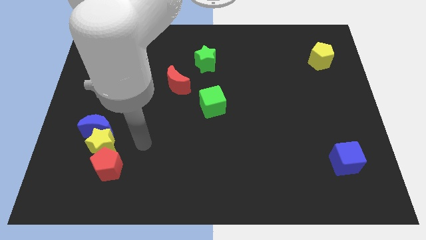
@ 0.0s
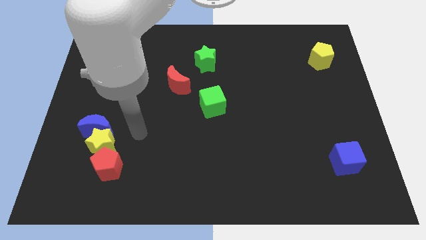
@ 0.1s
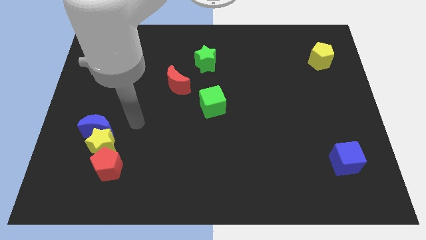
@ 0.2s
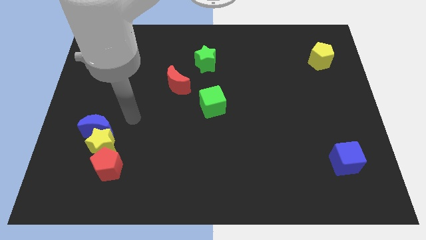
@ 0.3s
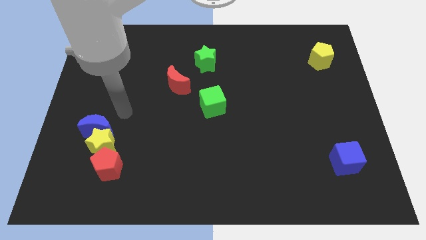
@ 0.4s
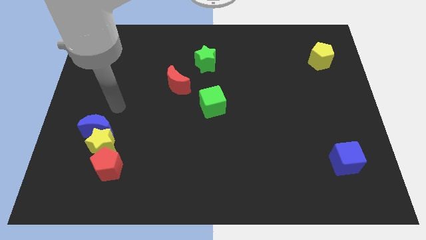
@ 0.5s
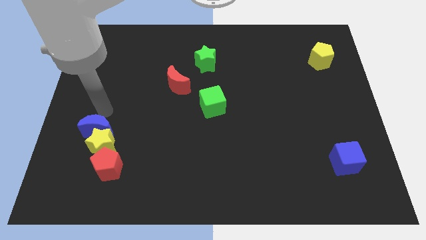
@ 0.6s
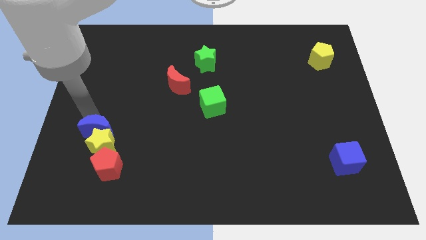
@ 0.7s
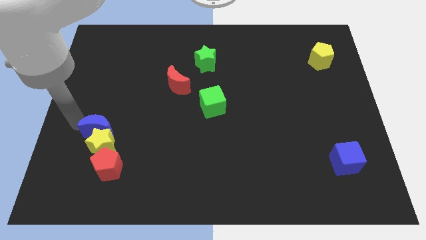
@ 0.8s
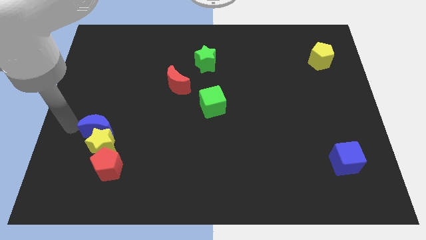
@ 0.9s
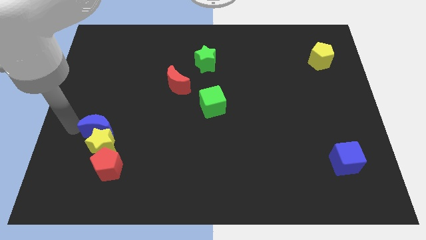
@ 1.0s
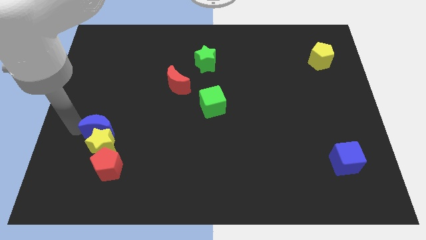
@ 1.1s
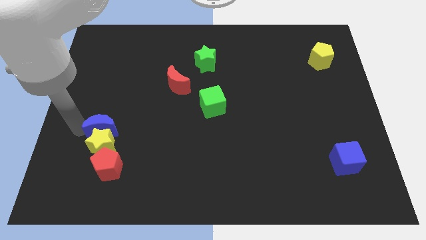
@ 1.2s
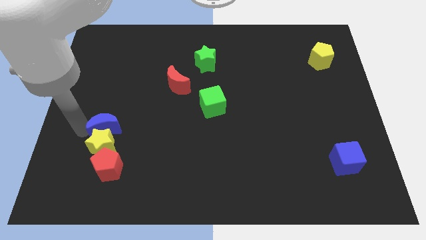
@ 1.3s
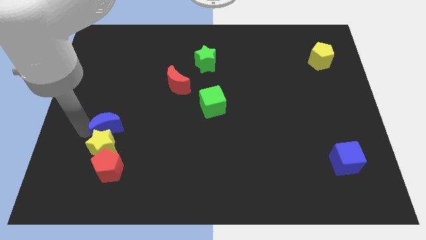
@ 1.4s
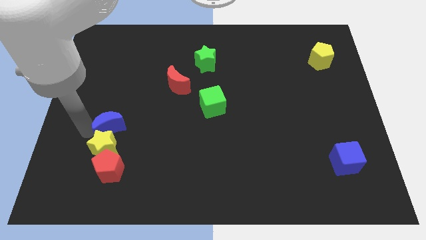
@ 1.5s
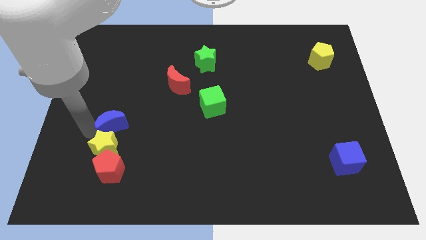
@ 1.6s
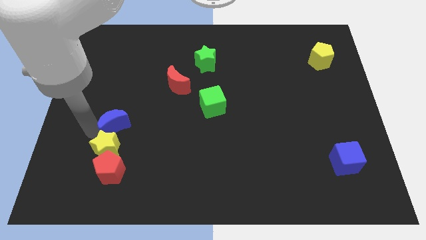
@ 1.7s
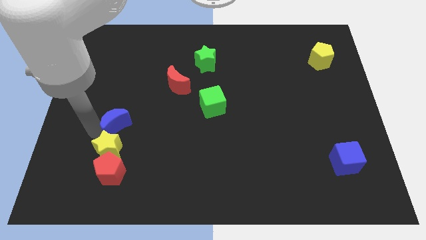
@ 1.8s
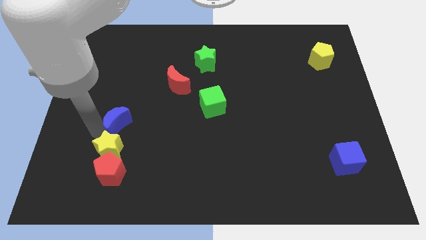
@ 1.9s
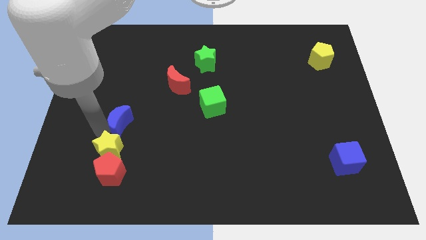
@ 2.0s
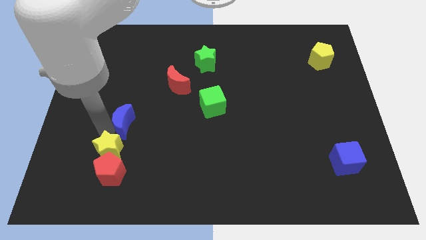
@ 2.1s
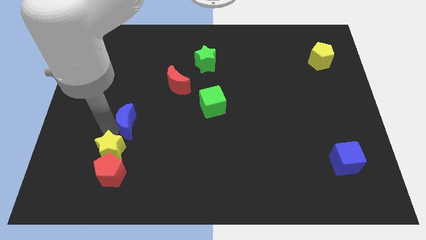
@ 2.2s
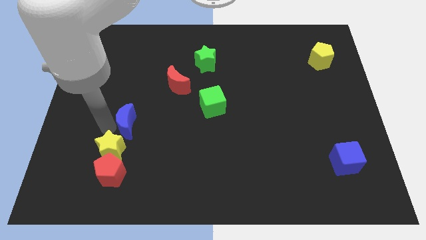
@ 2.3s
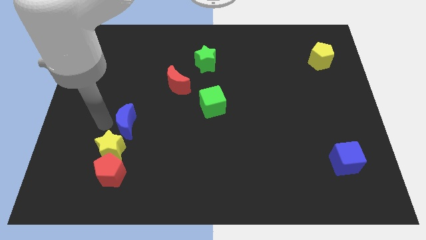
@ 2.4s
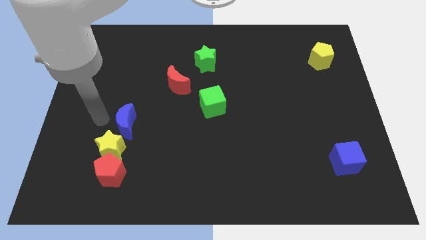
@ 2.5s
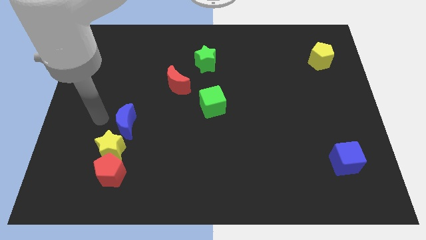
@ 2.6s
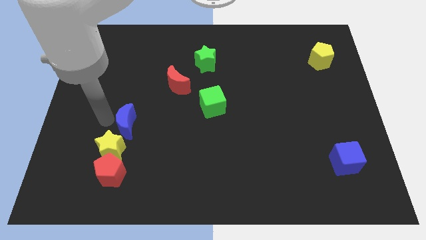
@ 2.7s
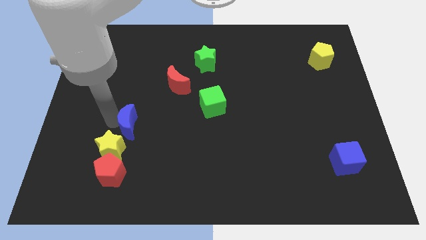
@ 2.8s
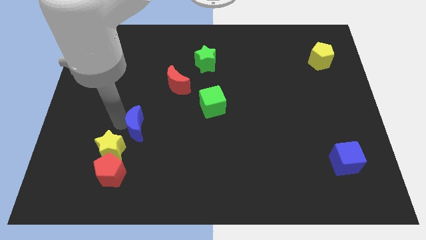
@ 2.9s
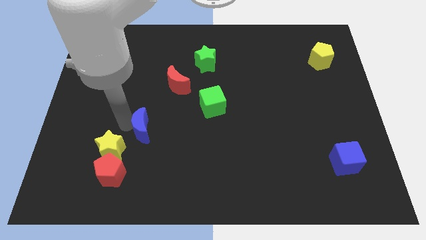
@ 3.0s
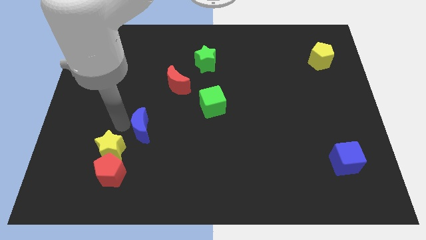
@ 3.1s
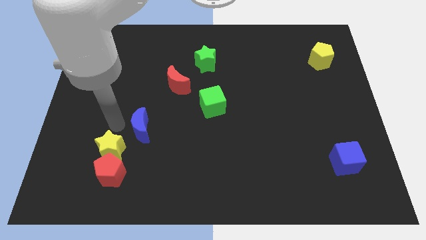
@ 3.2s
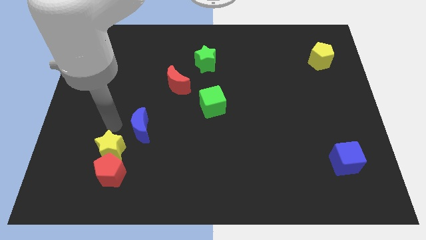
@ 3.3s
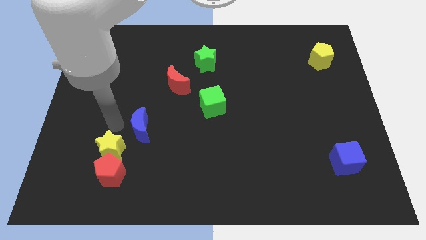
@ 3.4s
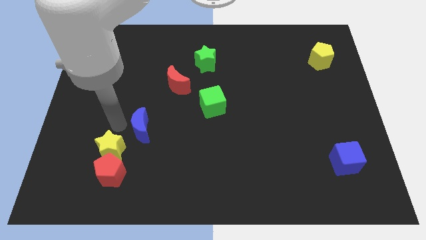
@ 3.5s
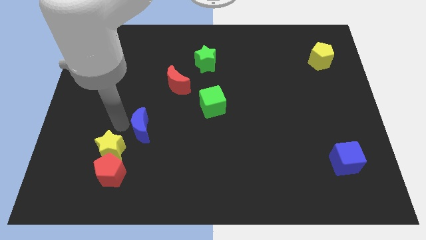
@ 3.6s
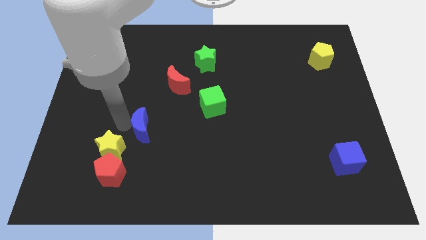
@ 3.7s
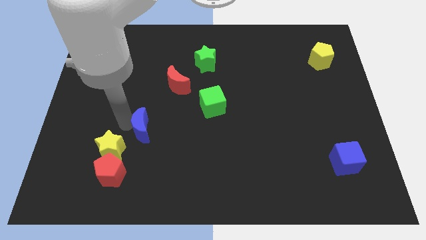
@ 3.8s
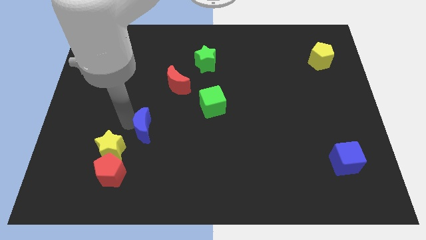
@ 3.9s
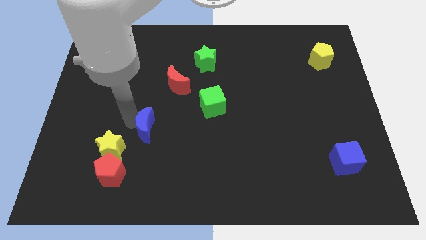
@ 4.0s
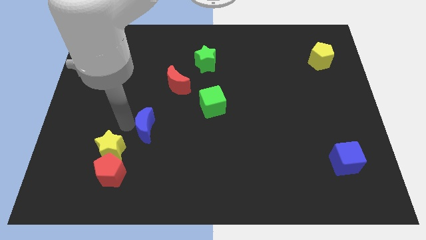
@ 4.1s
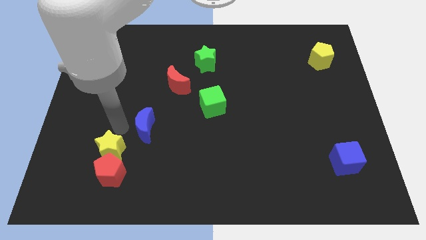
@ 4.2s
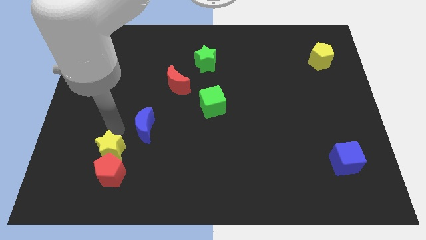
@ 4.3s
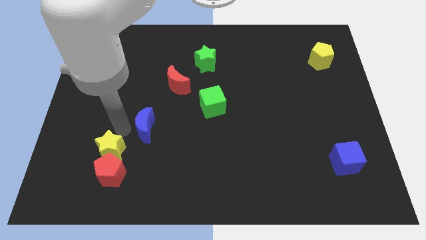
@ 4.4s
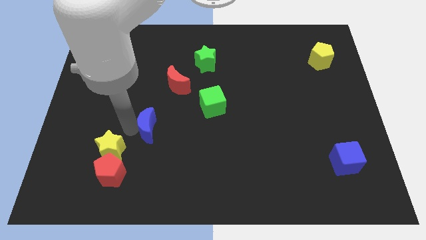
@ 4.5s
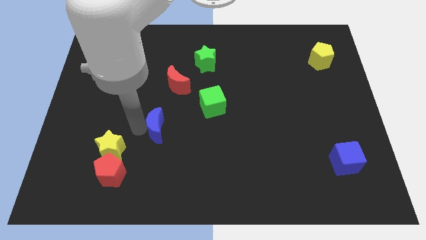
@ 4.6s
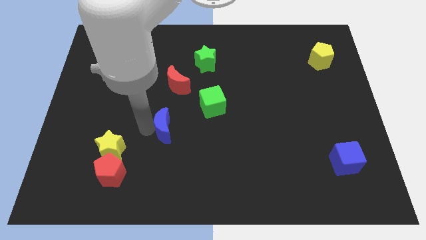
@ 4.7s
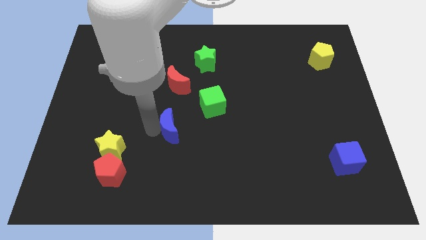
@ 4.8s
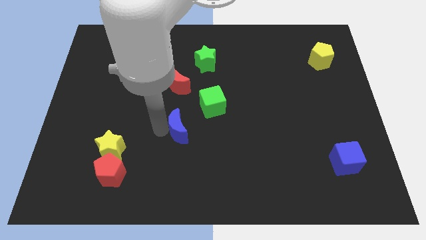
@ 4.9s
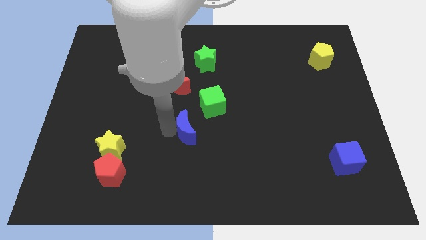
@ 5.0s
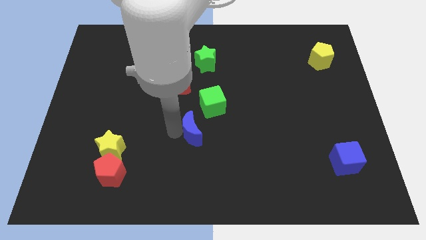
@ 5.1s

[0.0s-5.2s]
move the blue moon right

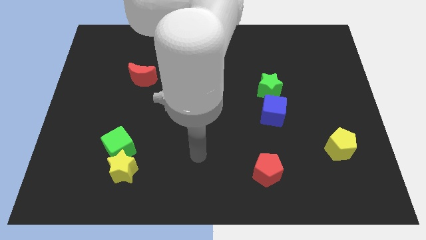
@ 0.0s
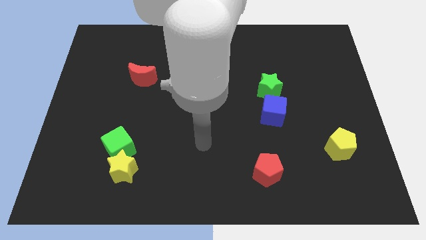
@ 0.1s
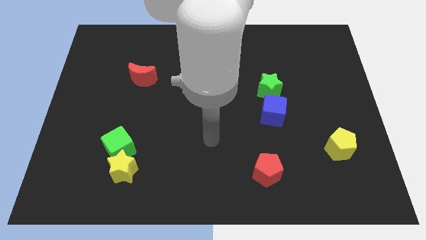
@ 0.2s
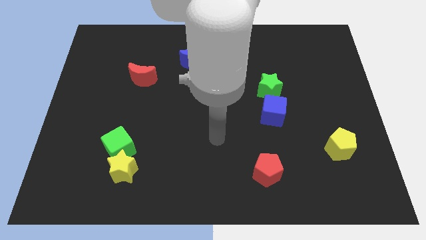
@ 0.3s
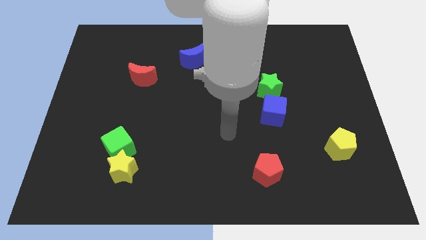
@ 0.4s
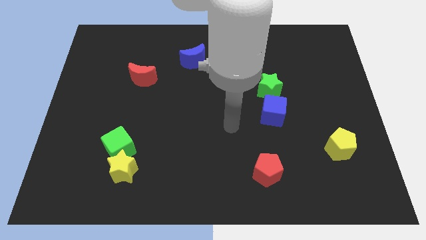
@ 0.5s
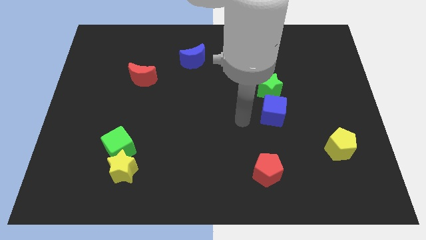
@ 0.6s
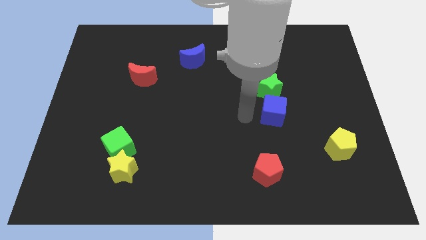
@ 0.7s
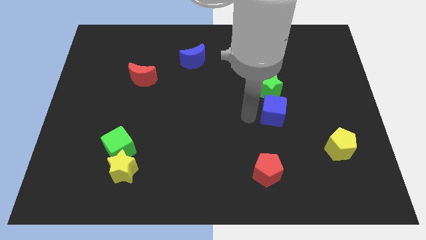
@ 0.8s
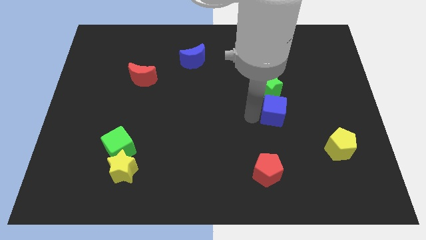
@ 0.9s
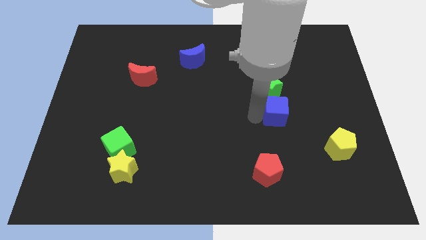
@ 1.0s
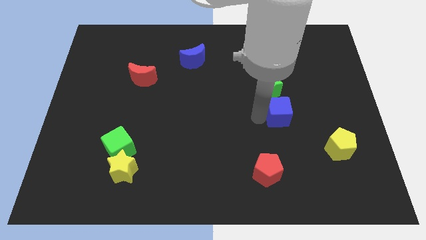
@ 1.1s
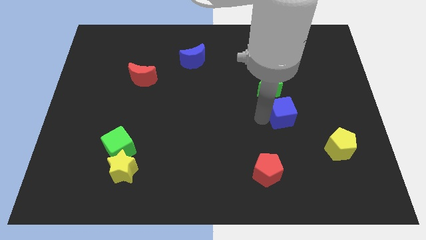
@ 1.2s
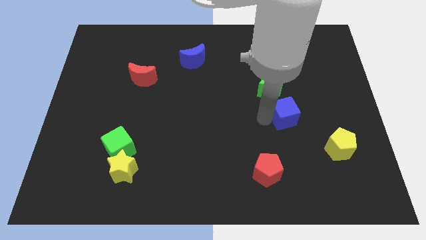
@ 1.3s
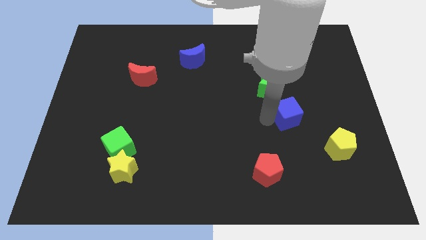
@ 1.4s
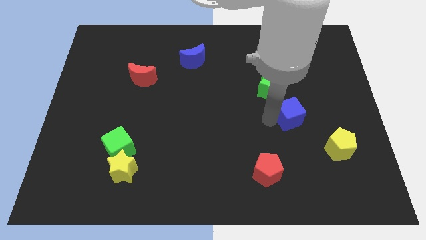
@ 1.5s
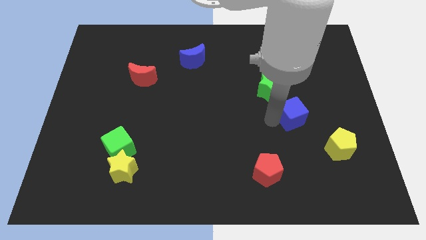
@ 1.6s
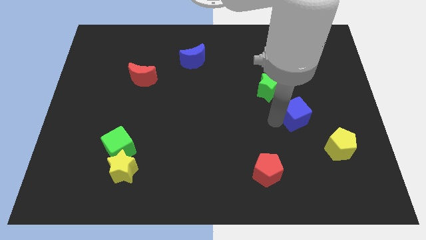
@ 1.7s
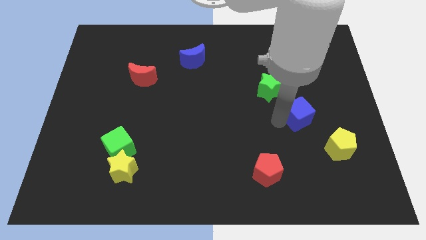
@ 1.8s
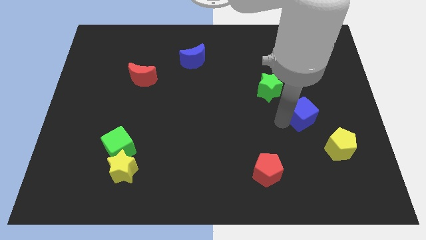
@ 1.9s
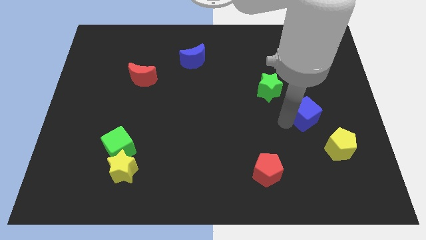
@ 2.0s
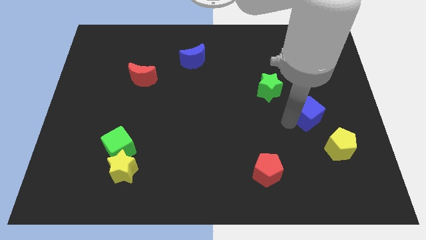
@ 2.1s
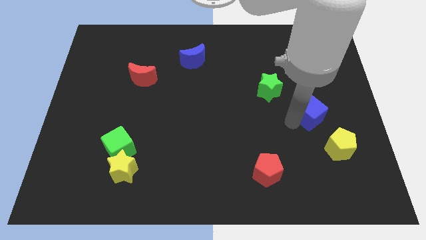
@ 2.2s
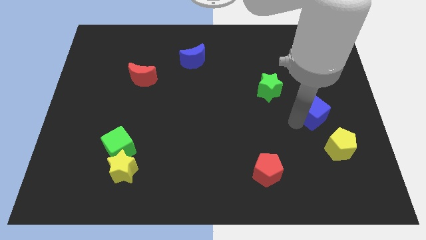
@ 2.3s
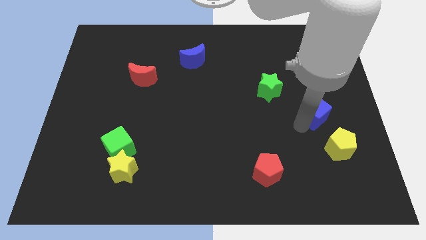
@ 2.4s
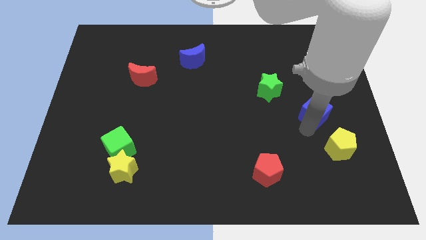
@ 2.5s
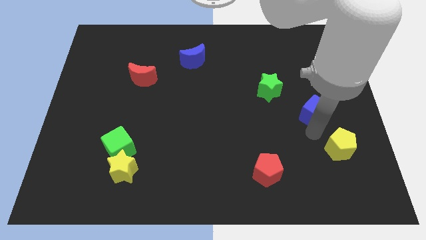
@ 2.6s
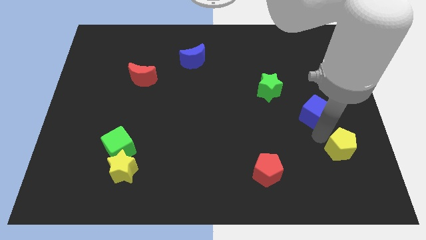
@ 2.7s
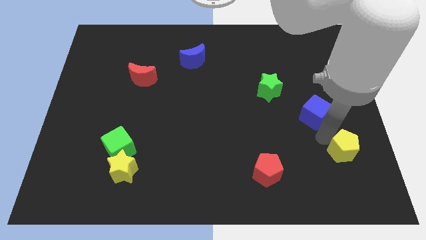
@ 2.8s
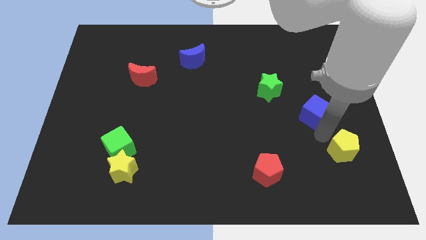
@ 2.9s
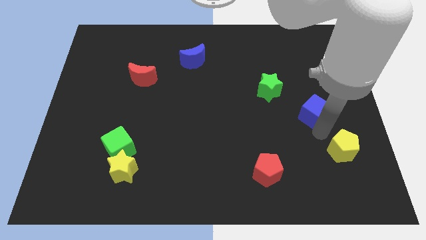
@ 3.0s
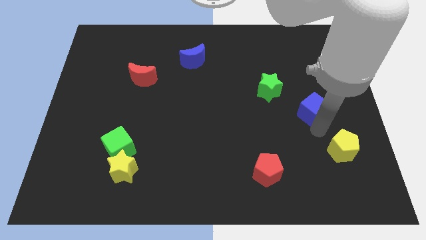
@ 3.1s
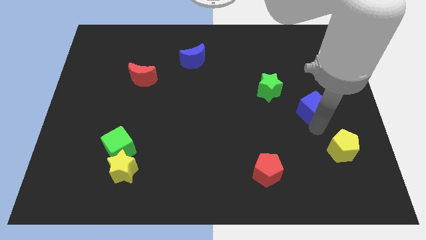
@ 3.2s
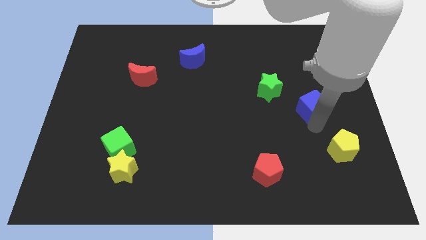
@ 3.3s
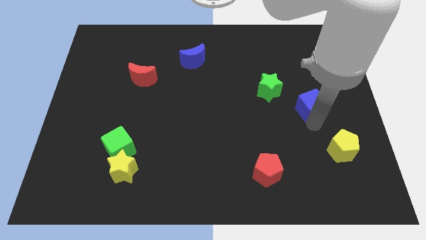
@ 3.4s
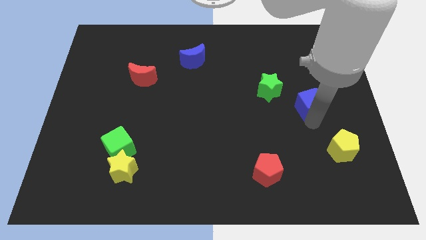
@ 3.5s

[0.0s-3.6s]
slightly move the blue cube up and right
